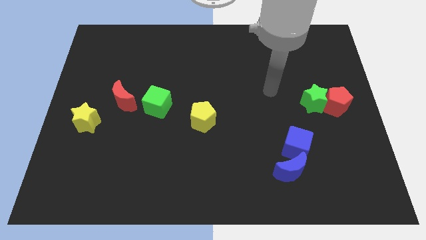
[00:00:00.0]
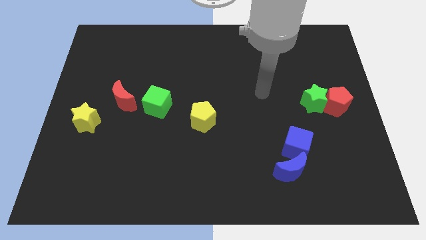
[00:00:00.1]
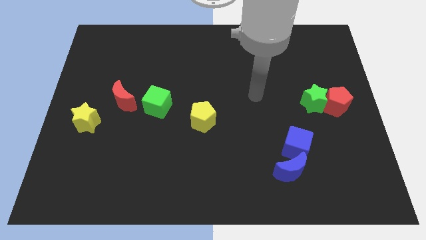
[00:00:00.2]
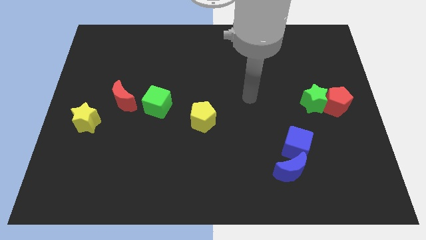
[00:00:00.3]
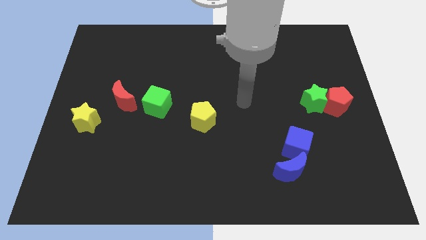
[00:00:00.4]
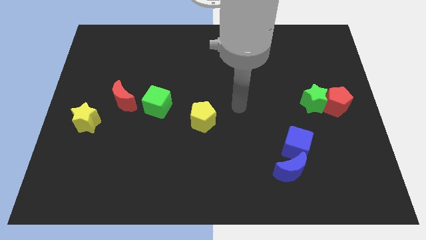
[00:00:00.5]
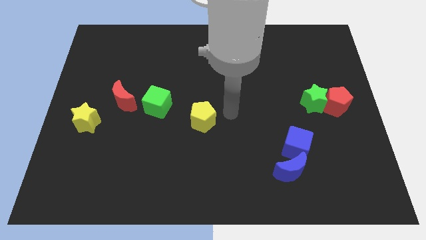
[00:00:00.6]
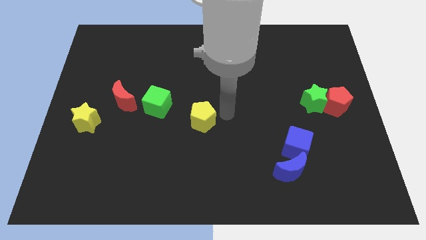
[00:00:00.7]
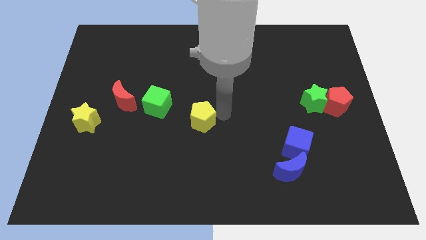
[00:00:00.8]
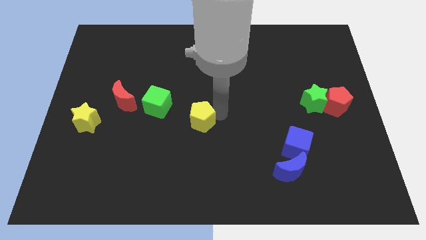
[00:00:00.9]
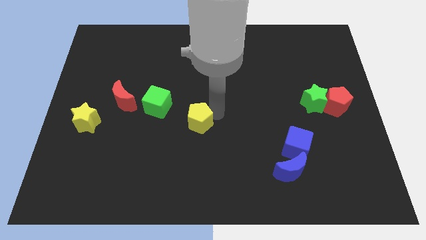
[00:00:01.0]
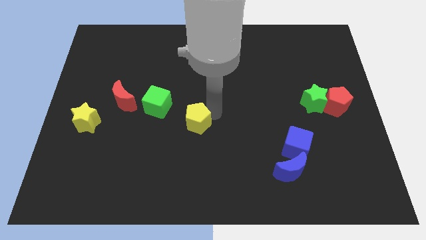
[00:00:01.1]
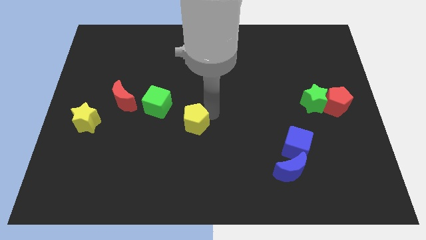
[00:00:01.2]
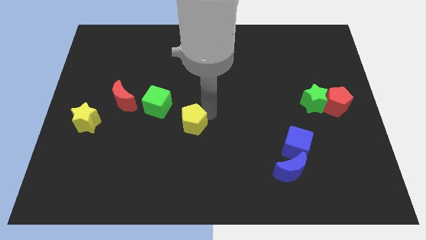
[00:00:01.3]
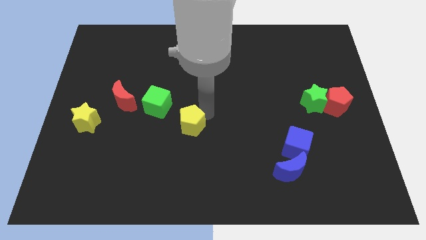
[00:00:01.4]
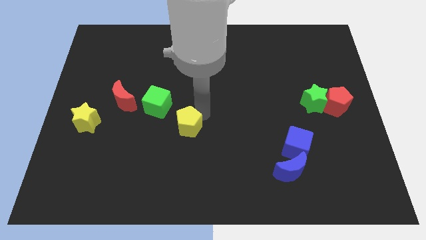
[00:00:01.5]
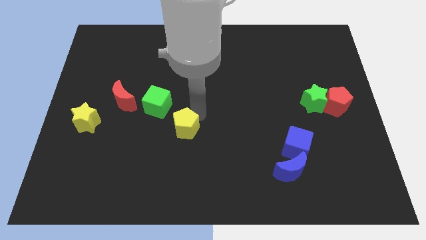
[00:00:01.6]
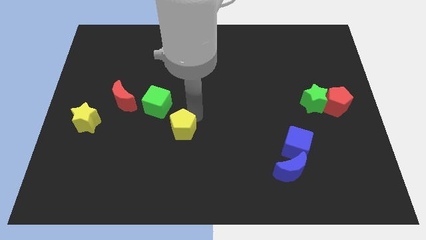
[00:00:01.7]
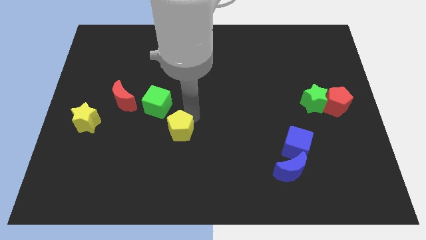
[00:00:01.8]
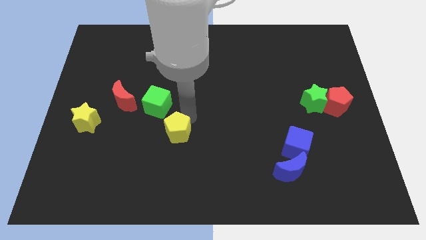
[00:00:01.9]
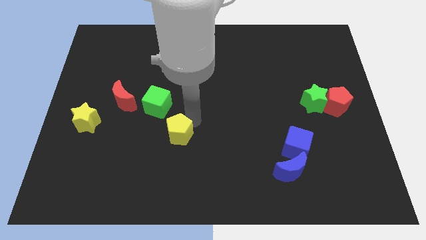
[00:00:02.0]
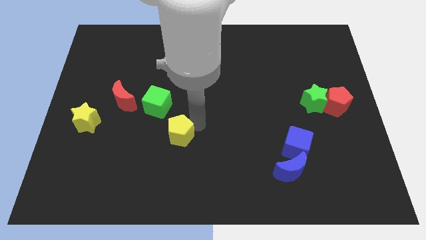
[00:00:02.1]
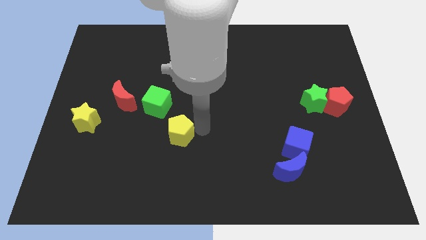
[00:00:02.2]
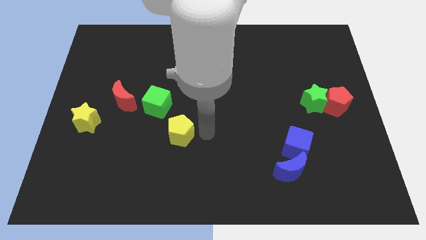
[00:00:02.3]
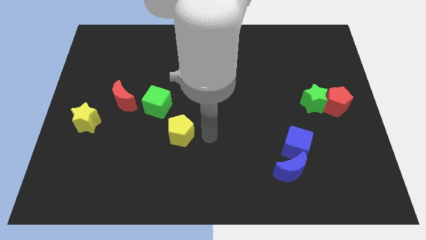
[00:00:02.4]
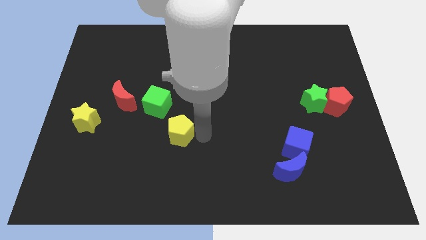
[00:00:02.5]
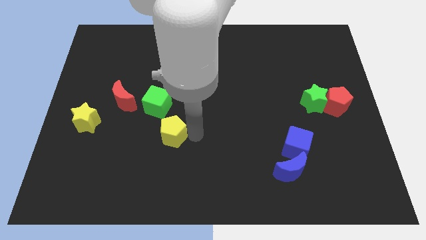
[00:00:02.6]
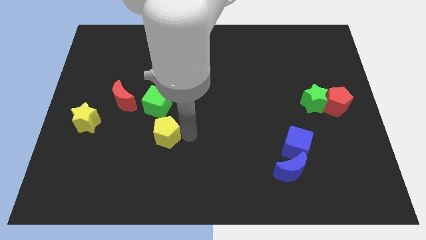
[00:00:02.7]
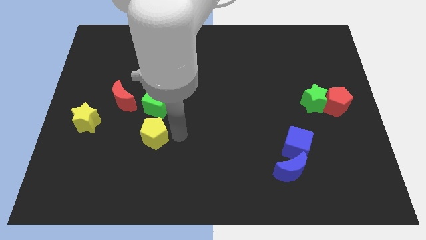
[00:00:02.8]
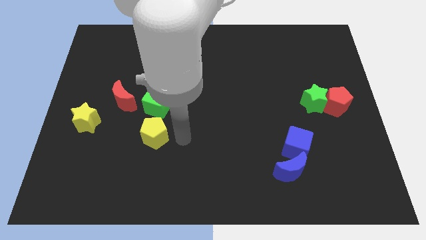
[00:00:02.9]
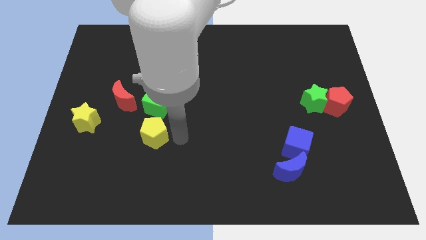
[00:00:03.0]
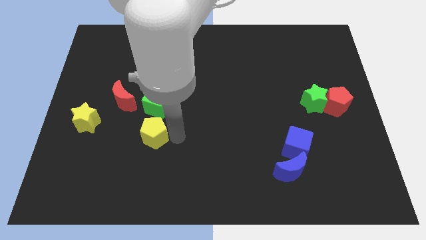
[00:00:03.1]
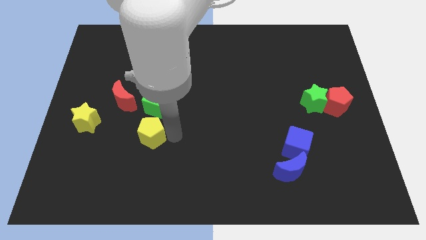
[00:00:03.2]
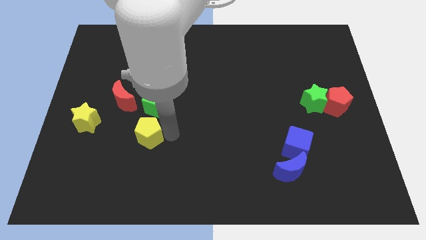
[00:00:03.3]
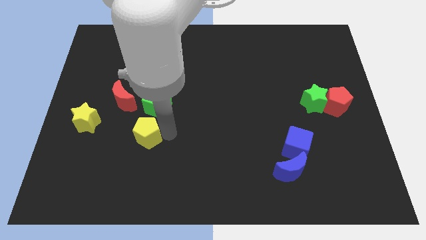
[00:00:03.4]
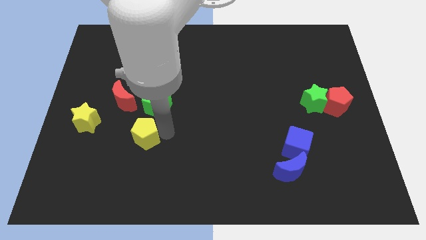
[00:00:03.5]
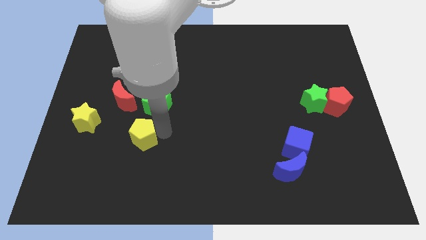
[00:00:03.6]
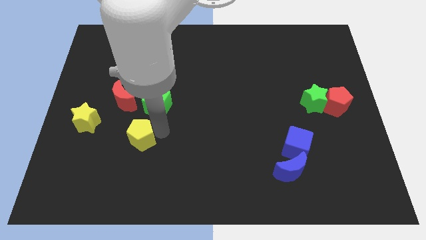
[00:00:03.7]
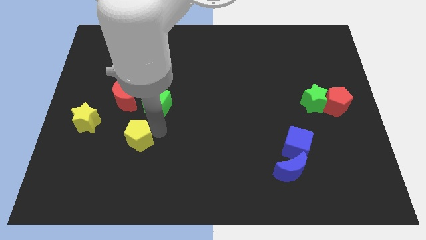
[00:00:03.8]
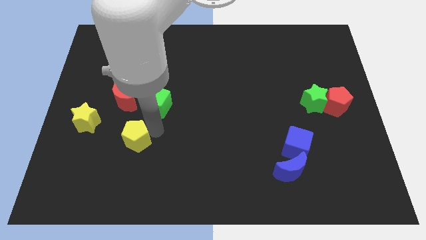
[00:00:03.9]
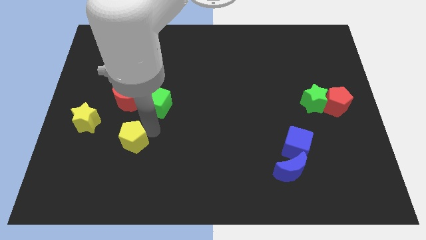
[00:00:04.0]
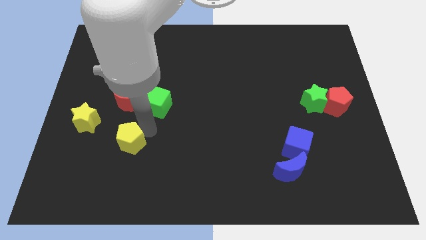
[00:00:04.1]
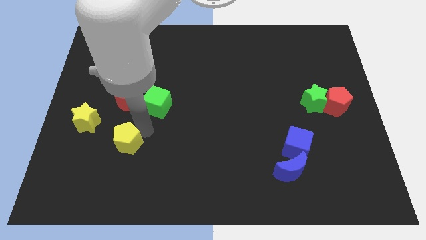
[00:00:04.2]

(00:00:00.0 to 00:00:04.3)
slide the yellow pentagon diagonally down and to the right of the yellow star

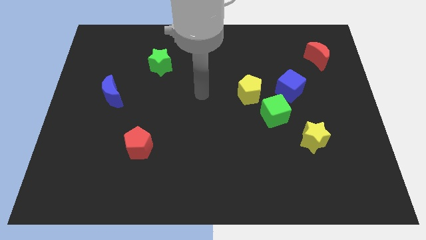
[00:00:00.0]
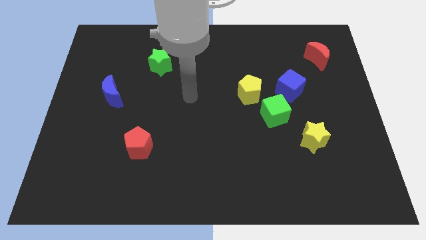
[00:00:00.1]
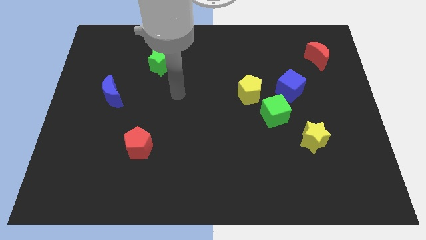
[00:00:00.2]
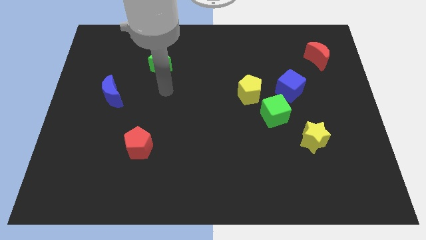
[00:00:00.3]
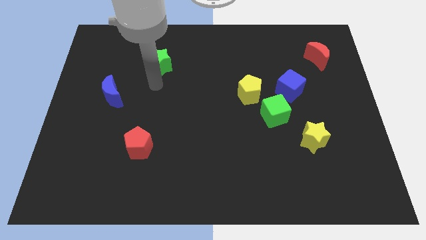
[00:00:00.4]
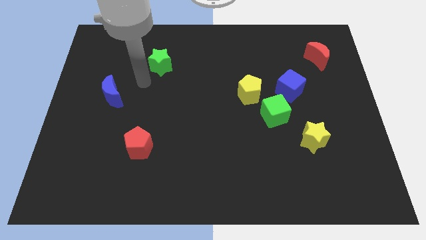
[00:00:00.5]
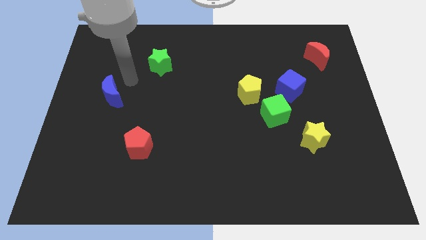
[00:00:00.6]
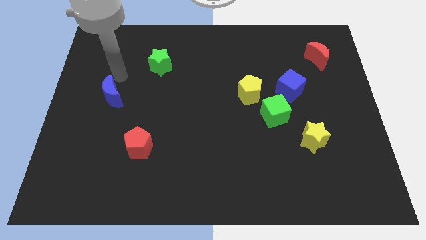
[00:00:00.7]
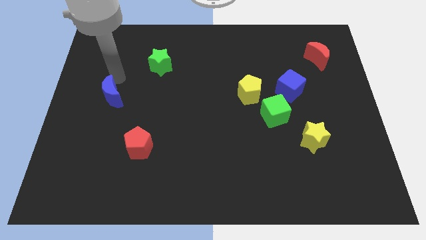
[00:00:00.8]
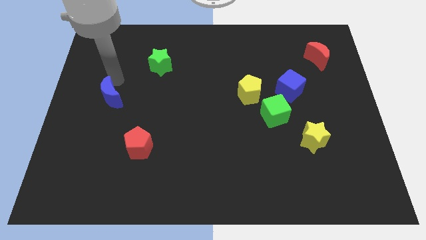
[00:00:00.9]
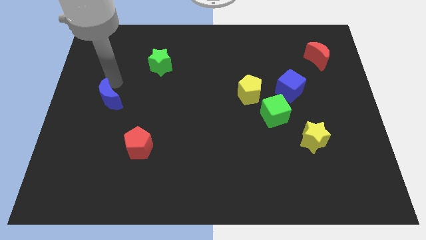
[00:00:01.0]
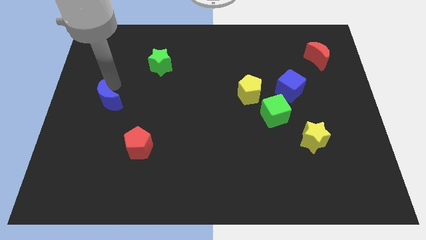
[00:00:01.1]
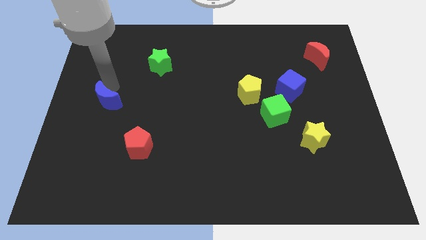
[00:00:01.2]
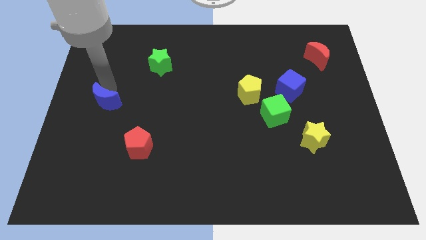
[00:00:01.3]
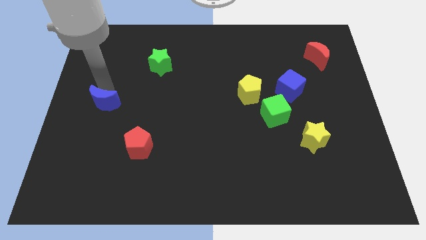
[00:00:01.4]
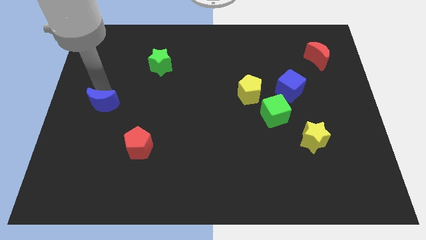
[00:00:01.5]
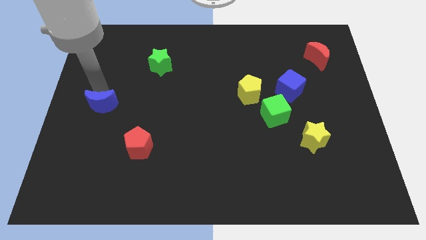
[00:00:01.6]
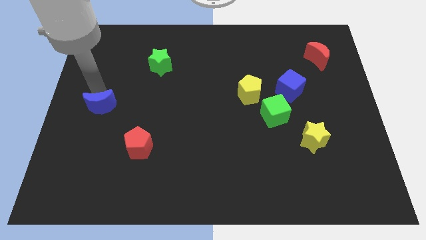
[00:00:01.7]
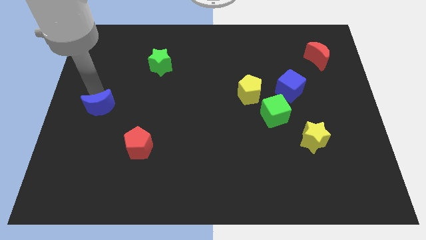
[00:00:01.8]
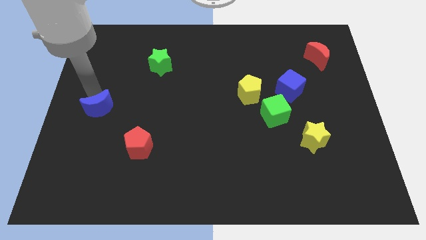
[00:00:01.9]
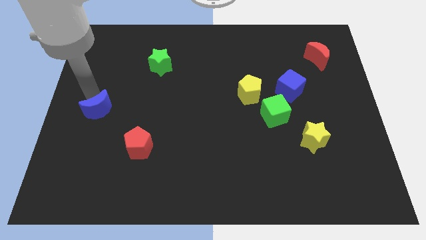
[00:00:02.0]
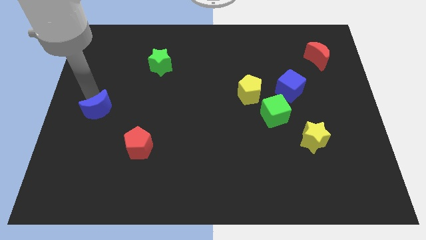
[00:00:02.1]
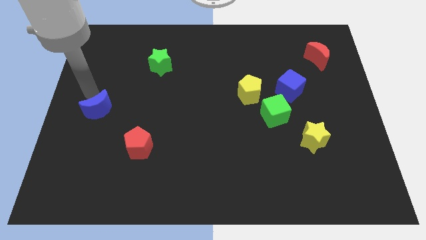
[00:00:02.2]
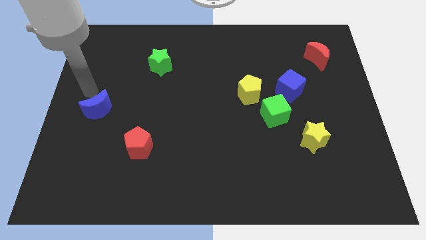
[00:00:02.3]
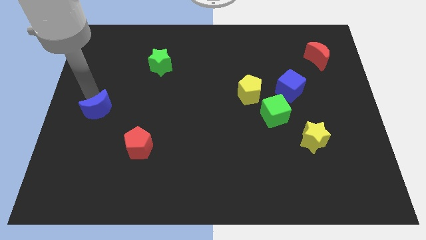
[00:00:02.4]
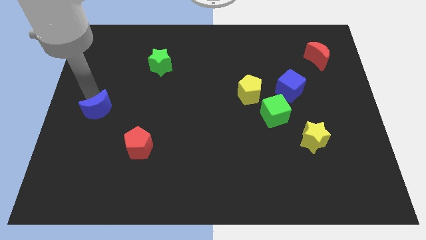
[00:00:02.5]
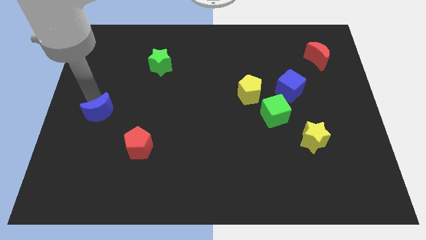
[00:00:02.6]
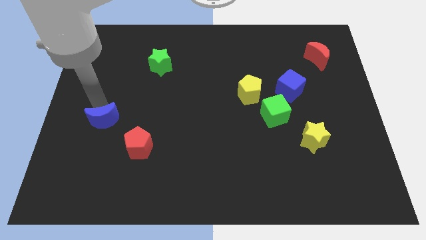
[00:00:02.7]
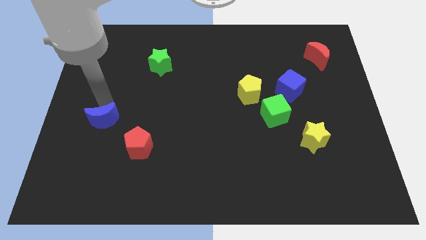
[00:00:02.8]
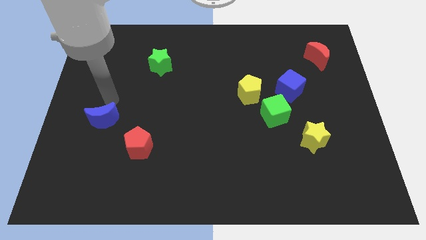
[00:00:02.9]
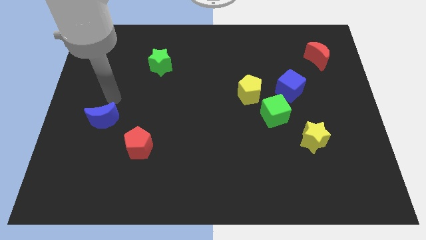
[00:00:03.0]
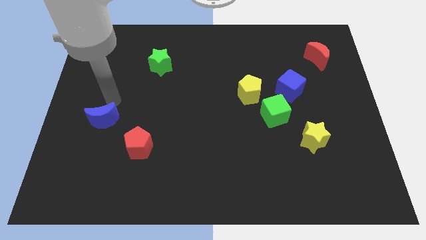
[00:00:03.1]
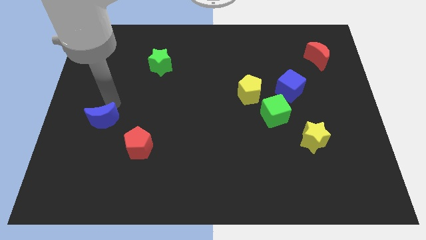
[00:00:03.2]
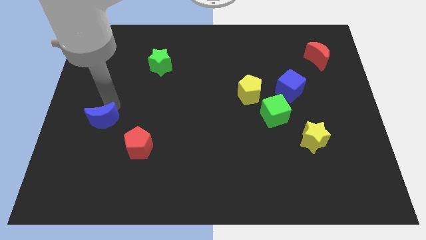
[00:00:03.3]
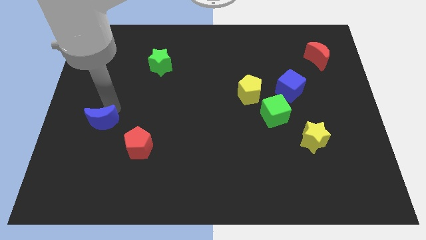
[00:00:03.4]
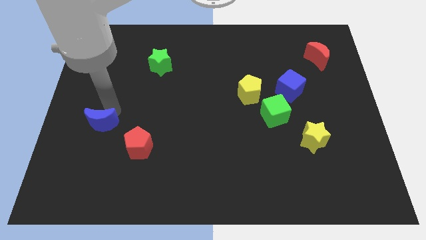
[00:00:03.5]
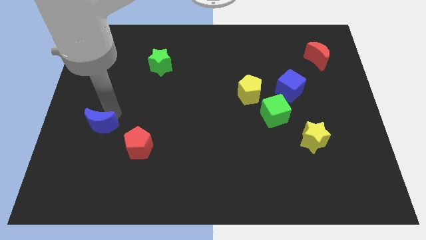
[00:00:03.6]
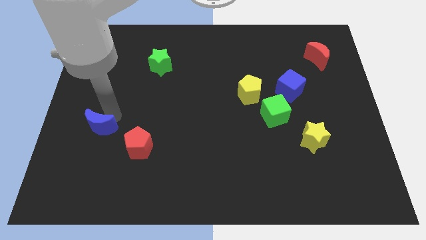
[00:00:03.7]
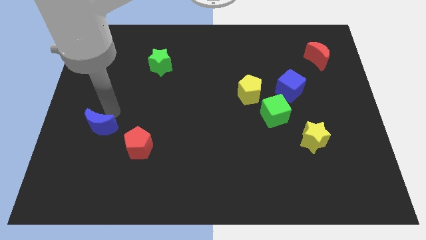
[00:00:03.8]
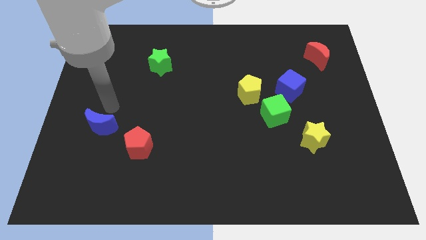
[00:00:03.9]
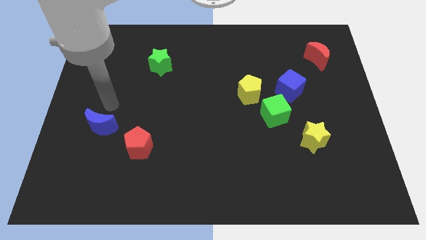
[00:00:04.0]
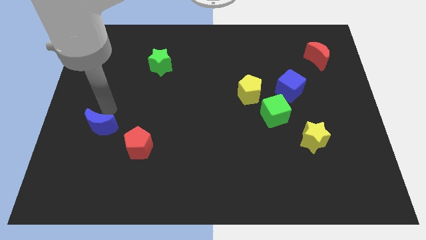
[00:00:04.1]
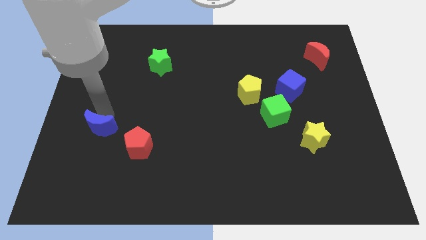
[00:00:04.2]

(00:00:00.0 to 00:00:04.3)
push the blue moon to the left side of the red pentagon
